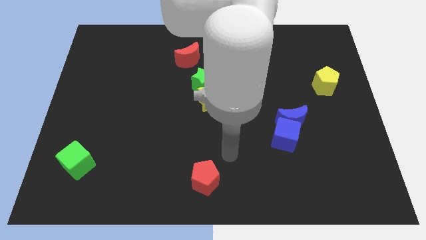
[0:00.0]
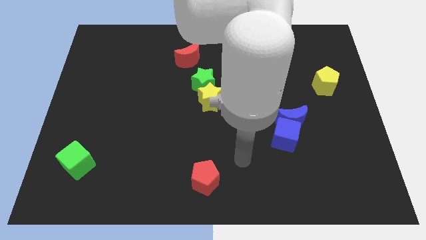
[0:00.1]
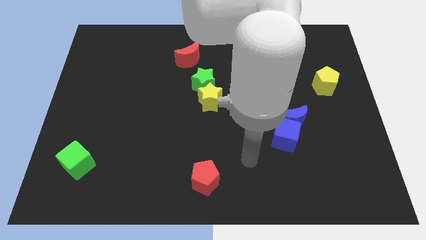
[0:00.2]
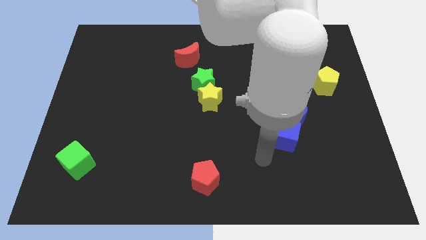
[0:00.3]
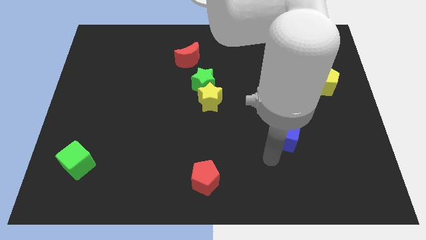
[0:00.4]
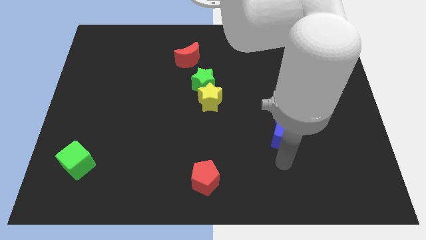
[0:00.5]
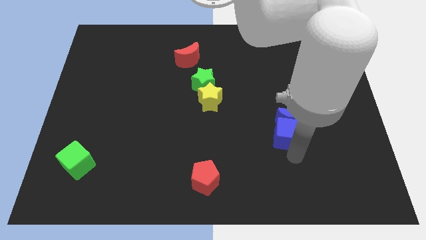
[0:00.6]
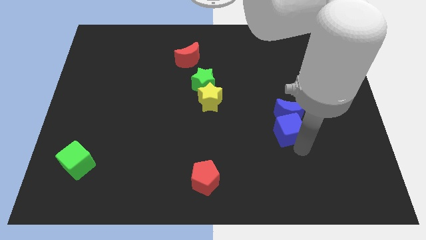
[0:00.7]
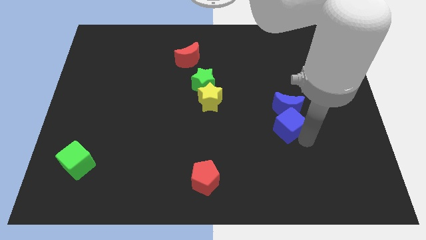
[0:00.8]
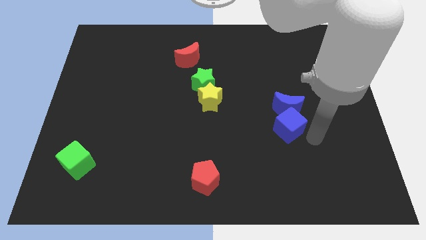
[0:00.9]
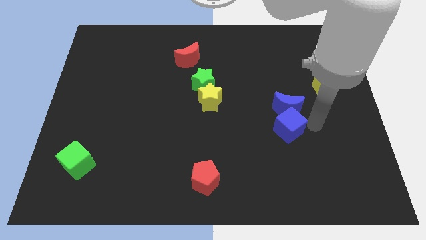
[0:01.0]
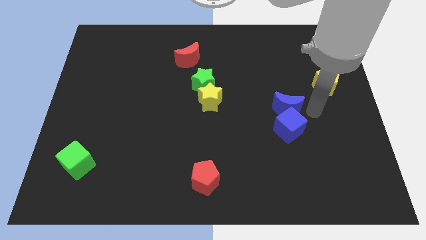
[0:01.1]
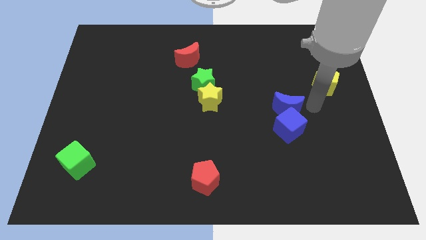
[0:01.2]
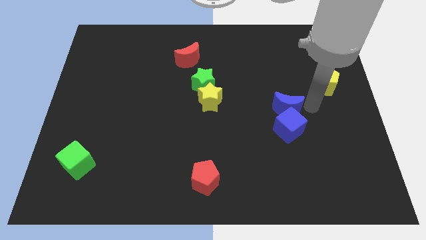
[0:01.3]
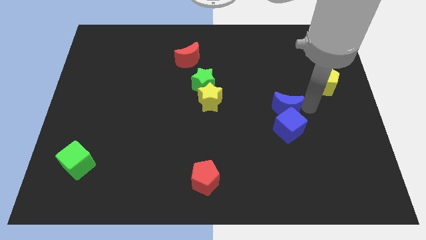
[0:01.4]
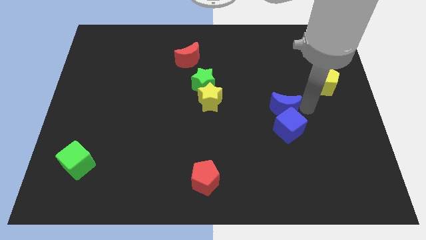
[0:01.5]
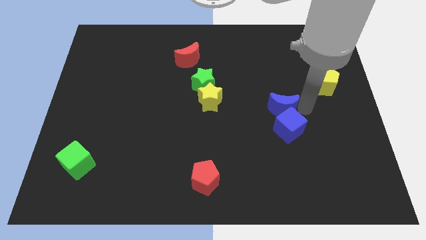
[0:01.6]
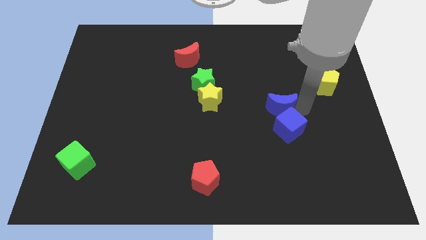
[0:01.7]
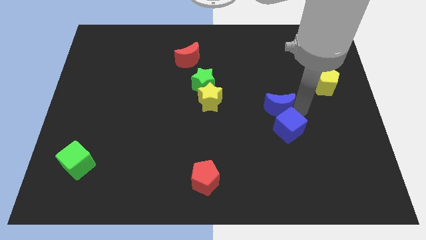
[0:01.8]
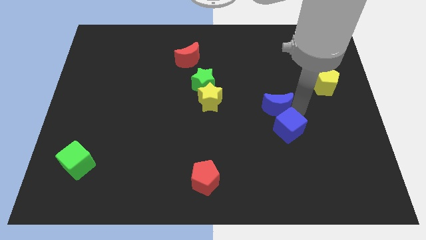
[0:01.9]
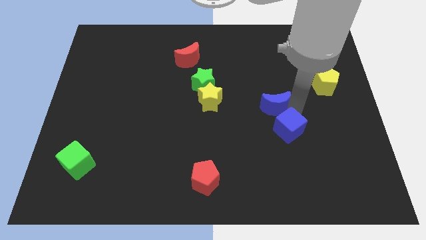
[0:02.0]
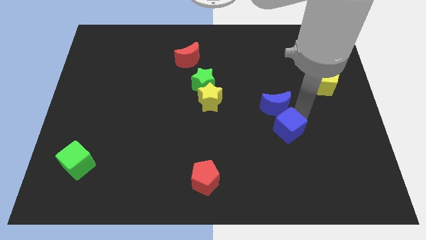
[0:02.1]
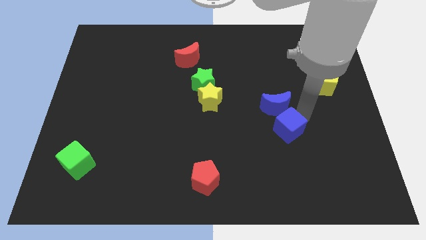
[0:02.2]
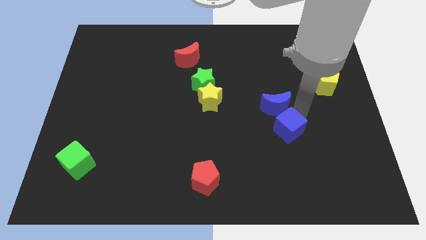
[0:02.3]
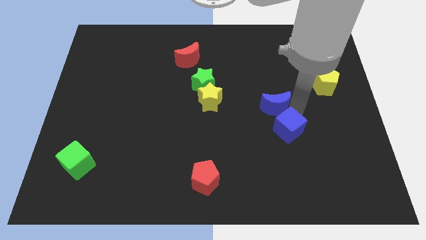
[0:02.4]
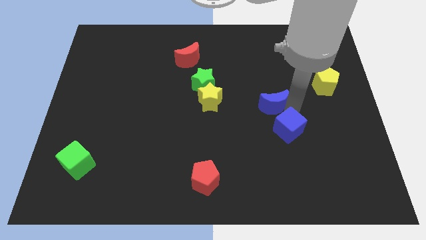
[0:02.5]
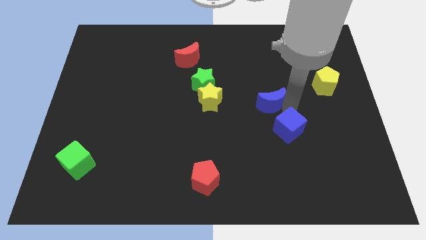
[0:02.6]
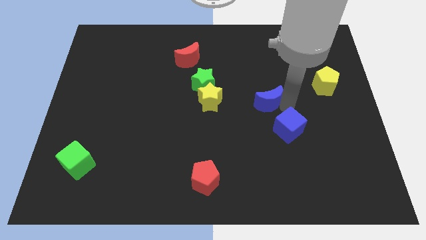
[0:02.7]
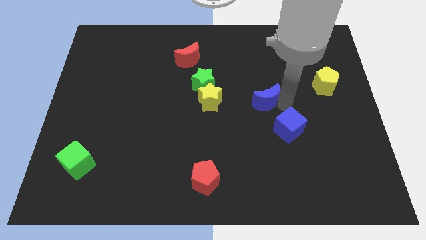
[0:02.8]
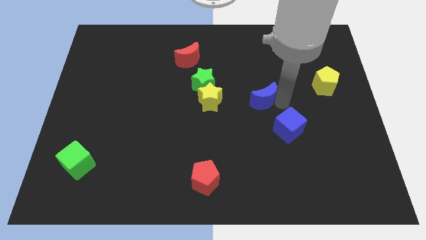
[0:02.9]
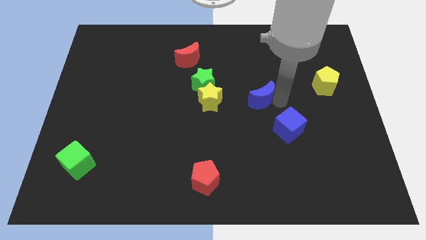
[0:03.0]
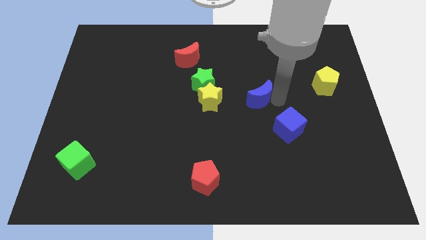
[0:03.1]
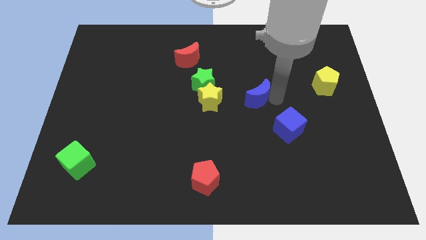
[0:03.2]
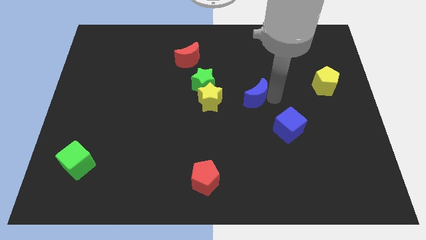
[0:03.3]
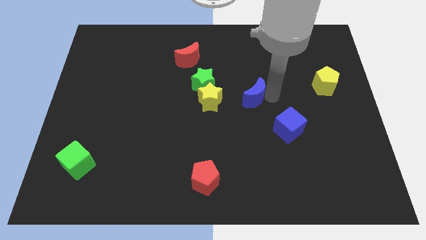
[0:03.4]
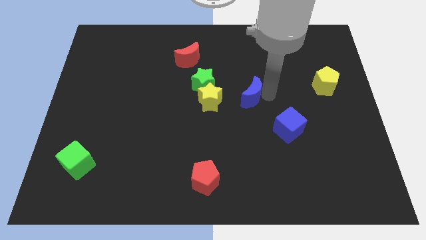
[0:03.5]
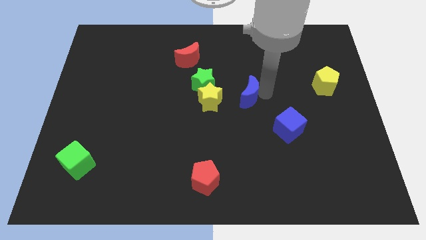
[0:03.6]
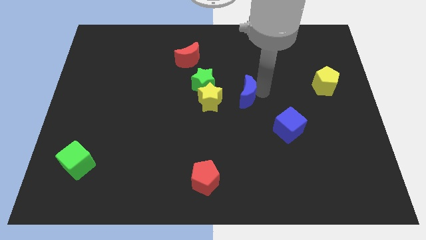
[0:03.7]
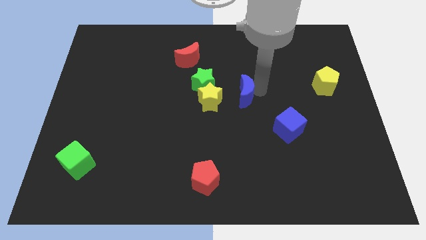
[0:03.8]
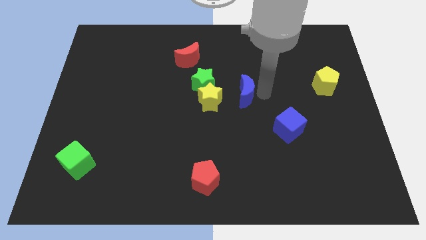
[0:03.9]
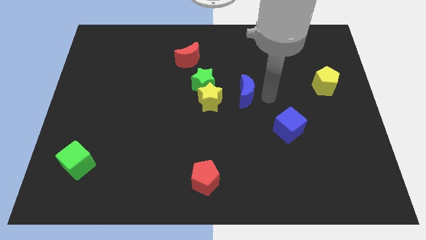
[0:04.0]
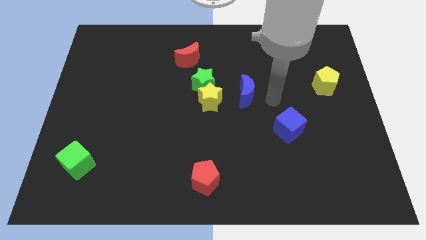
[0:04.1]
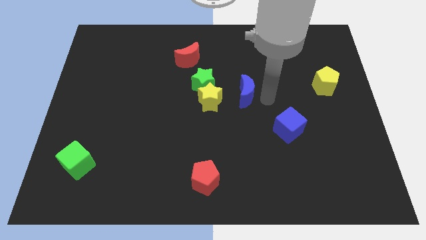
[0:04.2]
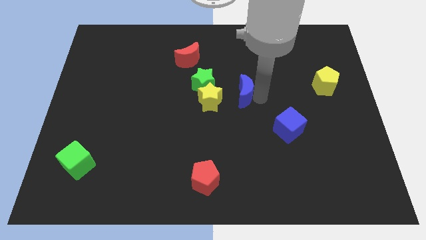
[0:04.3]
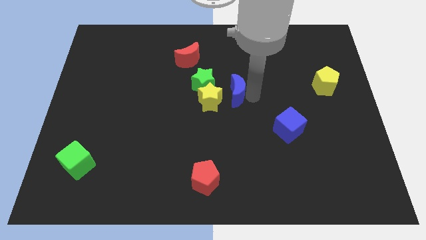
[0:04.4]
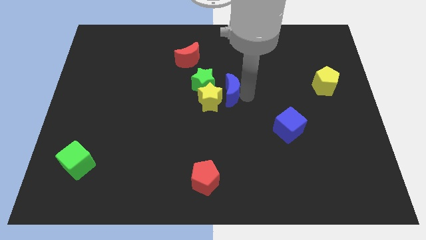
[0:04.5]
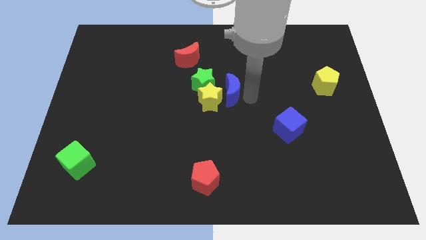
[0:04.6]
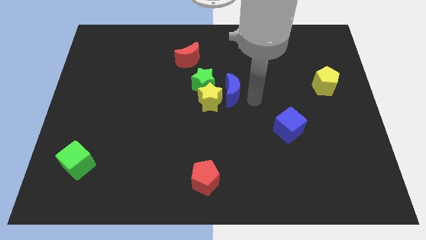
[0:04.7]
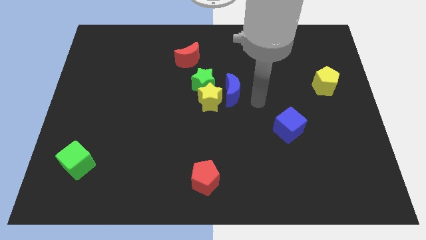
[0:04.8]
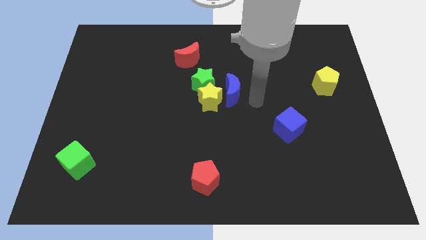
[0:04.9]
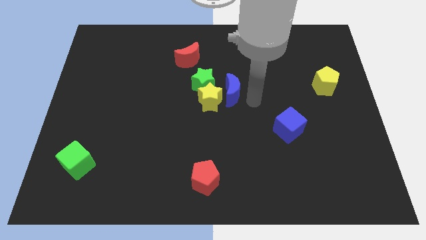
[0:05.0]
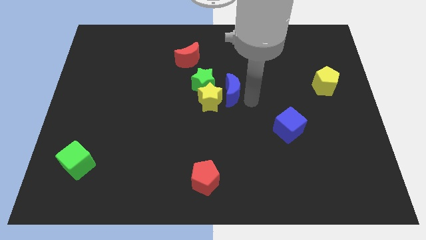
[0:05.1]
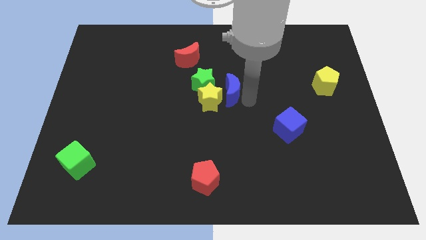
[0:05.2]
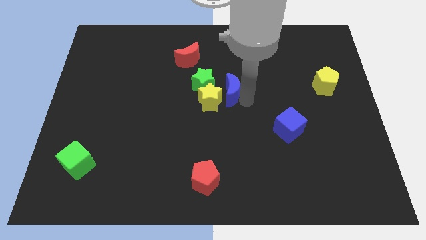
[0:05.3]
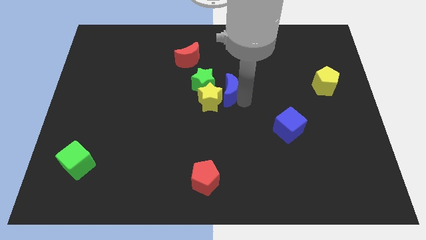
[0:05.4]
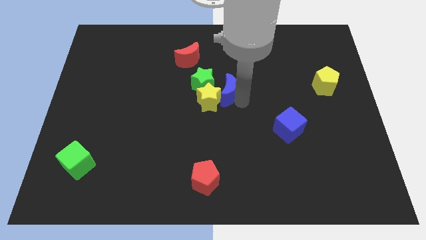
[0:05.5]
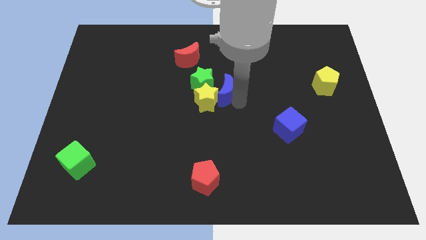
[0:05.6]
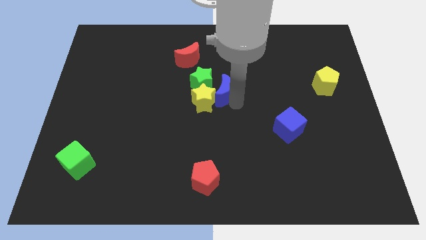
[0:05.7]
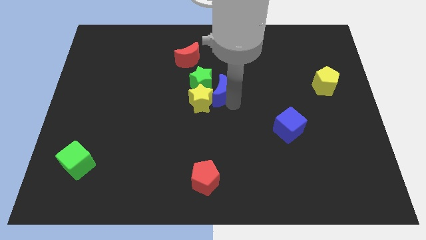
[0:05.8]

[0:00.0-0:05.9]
slide the blue moon to the green star

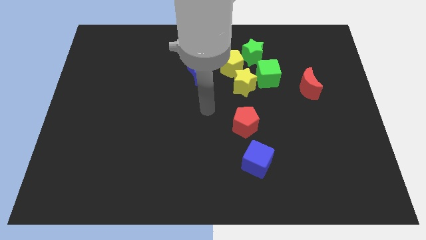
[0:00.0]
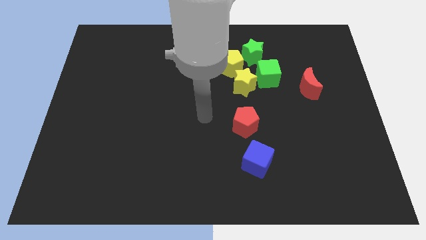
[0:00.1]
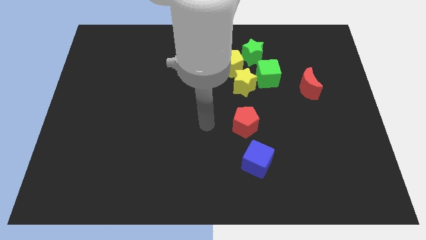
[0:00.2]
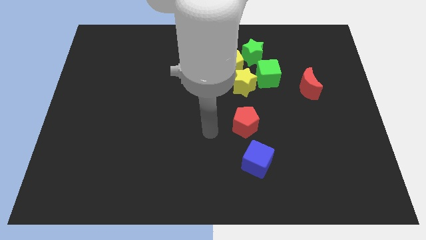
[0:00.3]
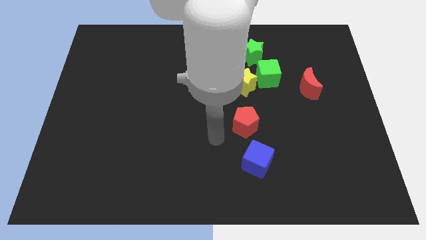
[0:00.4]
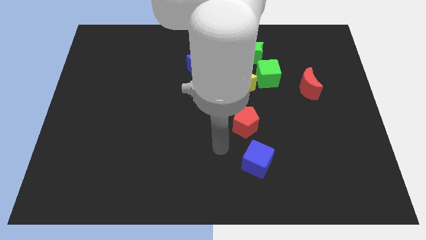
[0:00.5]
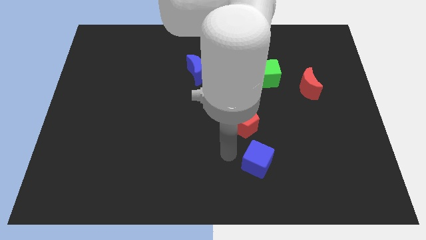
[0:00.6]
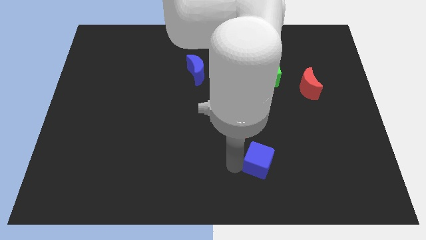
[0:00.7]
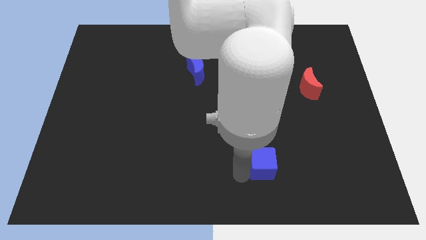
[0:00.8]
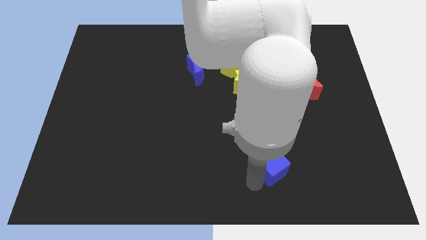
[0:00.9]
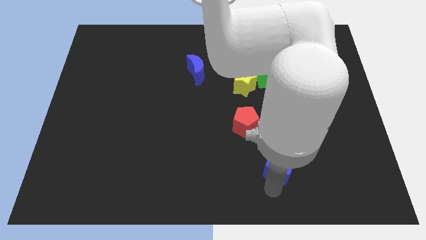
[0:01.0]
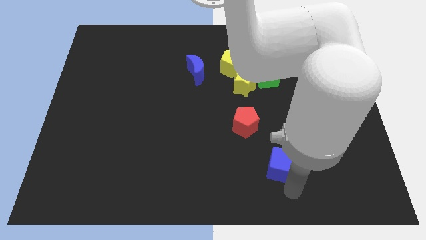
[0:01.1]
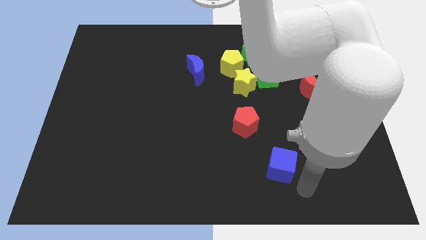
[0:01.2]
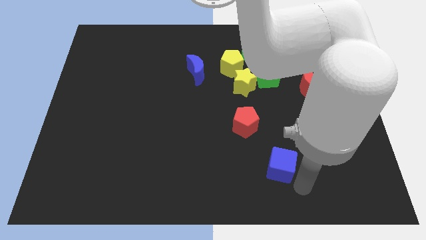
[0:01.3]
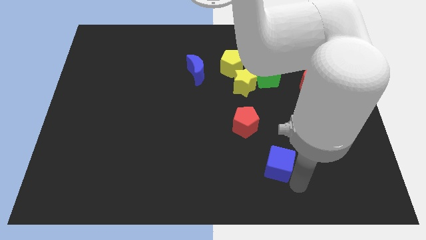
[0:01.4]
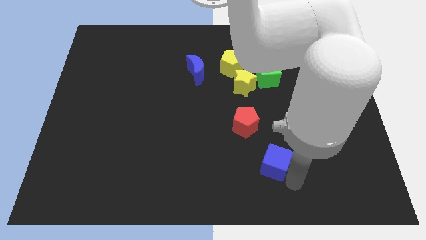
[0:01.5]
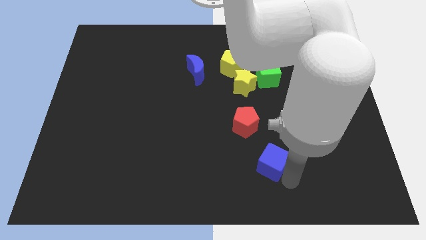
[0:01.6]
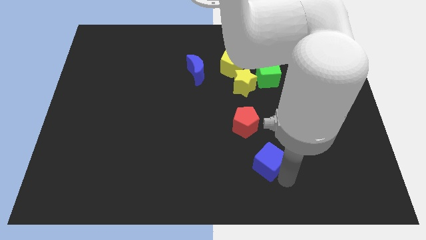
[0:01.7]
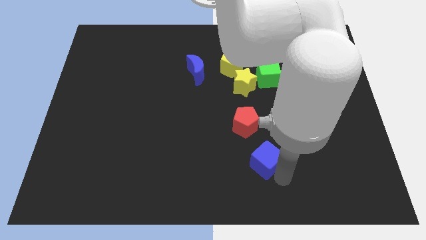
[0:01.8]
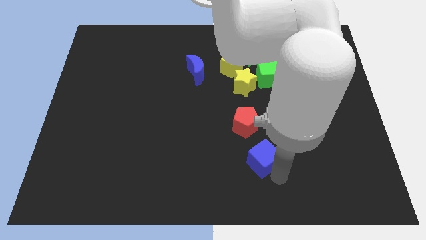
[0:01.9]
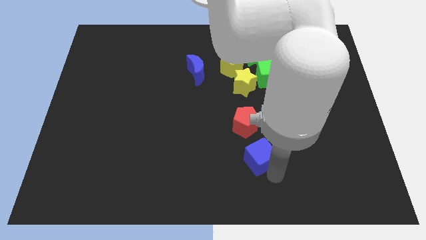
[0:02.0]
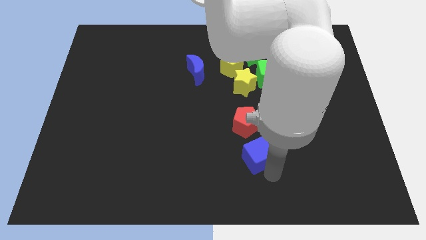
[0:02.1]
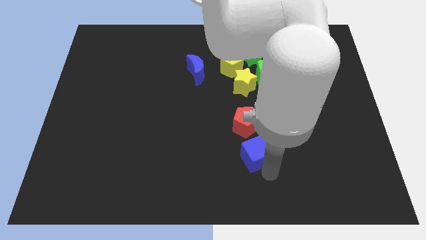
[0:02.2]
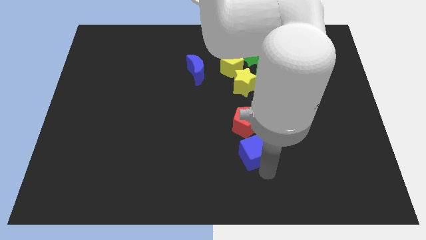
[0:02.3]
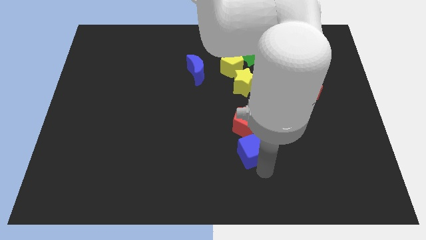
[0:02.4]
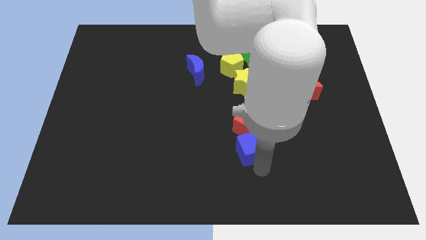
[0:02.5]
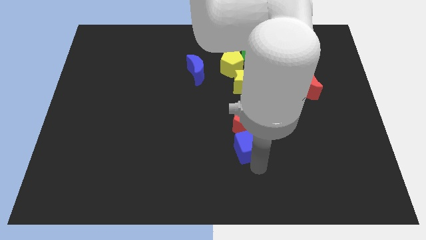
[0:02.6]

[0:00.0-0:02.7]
push the blue cube towards the red pentagon
